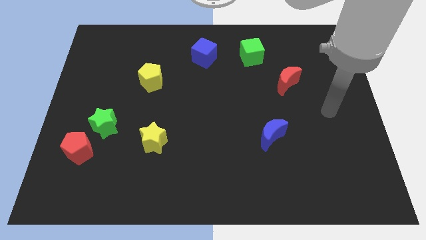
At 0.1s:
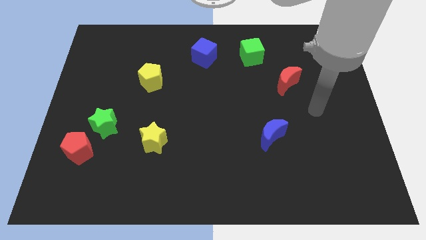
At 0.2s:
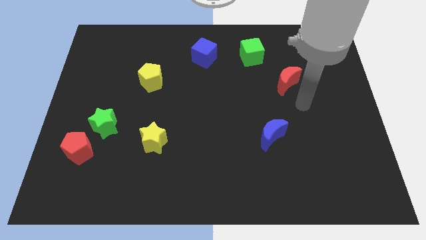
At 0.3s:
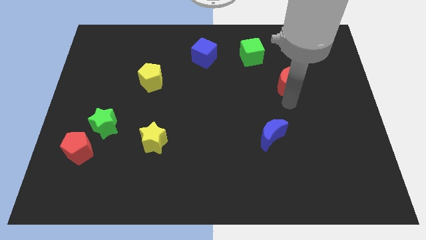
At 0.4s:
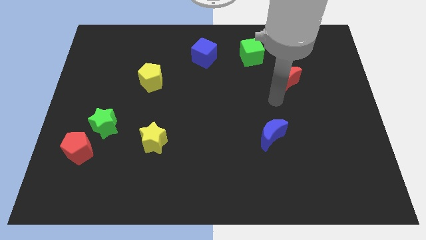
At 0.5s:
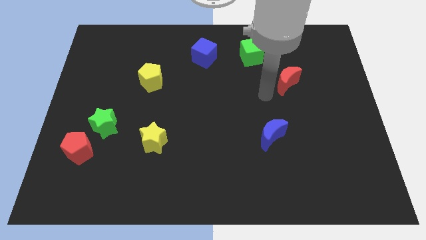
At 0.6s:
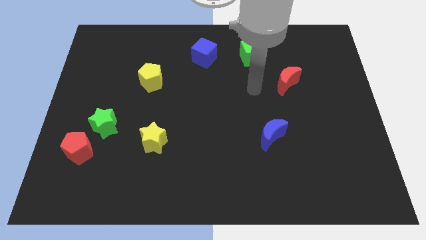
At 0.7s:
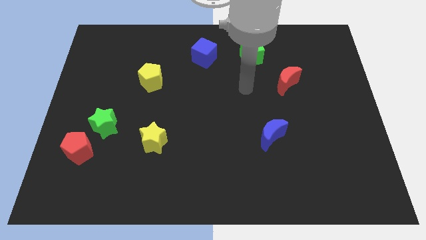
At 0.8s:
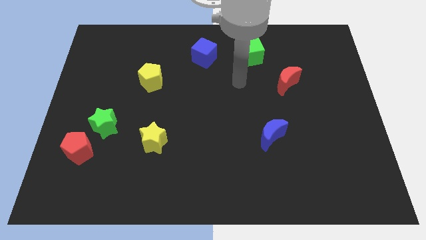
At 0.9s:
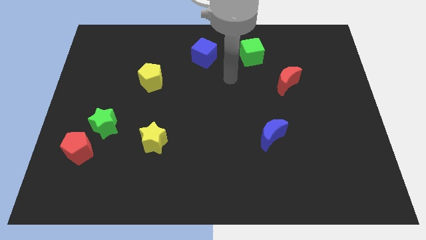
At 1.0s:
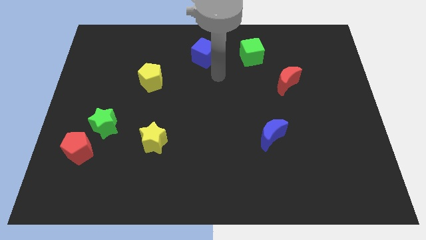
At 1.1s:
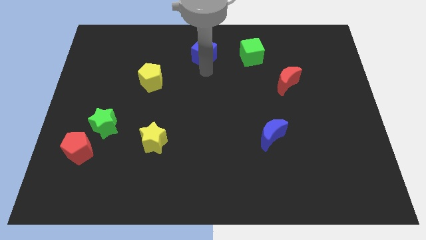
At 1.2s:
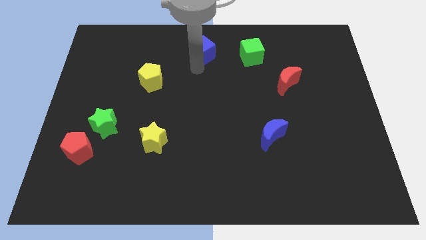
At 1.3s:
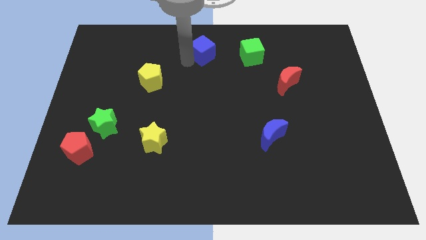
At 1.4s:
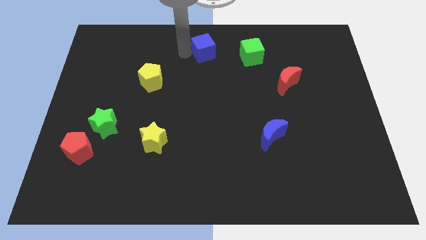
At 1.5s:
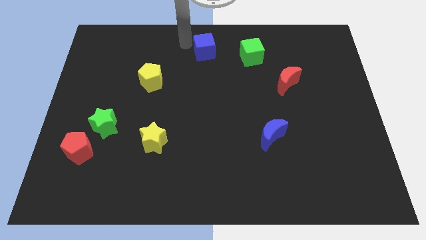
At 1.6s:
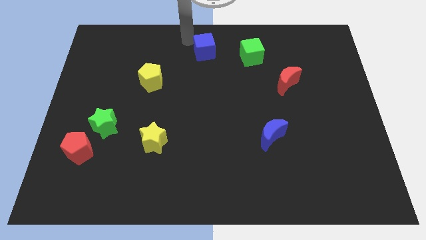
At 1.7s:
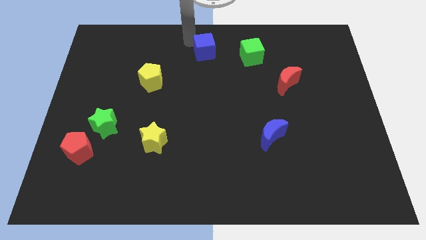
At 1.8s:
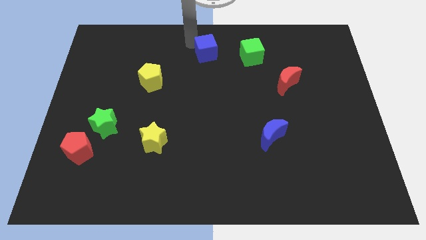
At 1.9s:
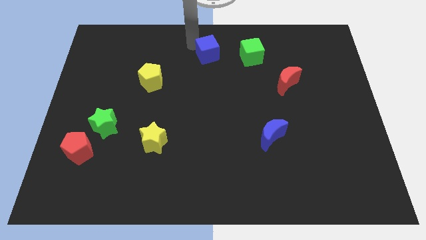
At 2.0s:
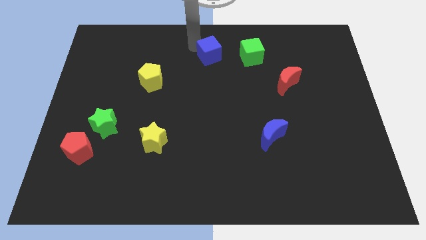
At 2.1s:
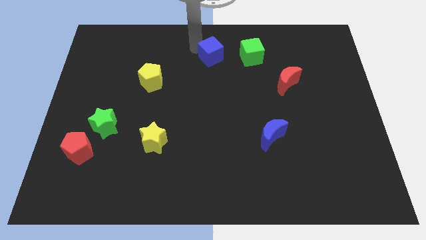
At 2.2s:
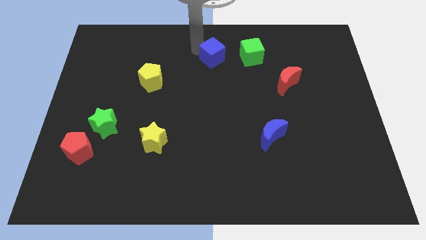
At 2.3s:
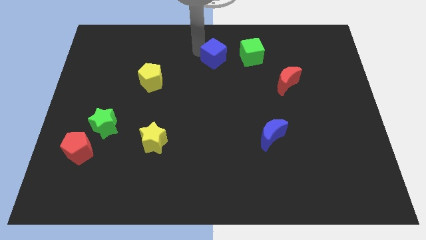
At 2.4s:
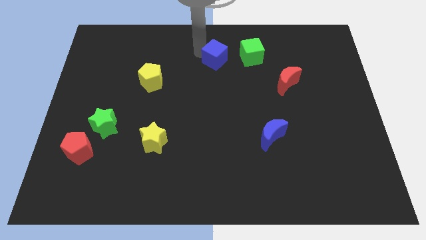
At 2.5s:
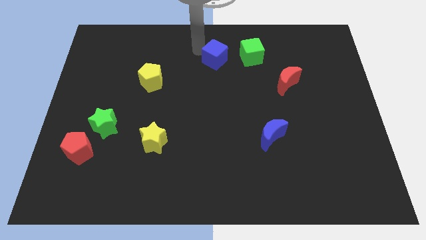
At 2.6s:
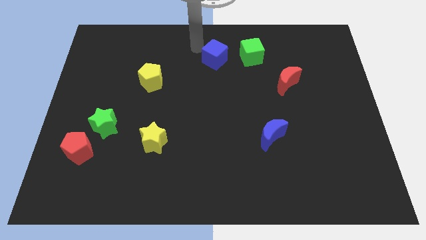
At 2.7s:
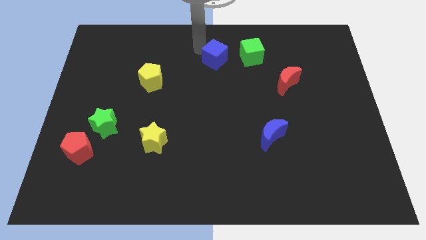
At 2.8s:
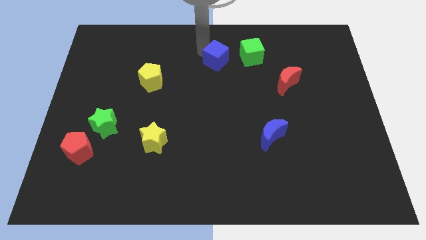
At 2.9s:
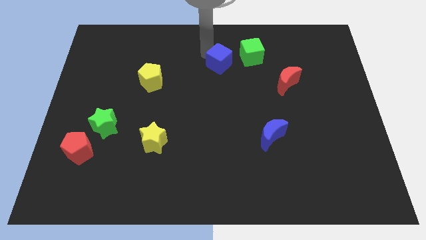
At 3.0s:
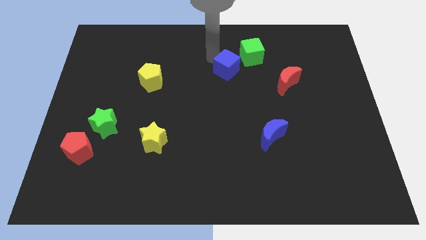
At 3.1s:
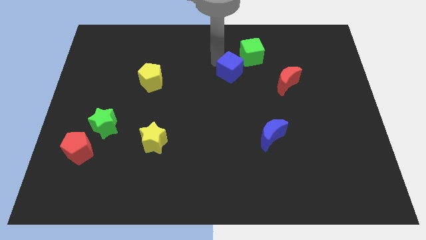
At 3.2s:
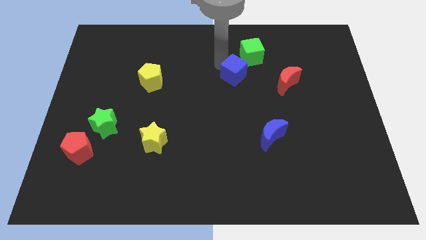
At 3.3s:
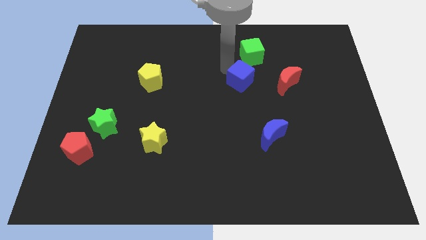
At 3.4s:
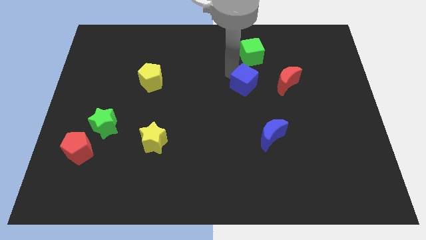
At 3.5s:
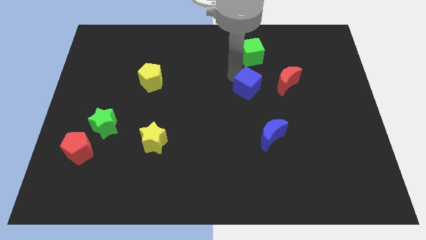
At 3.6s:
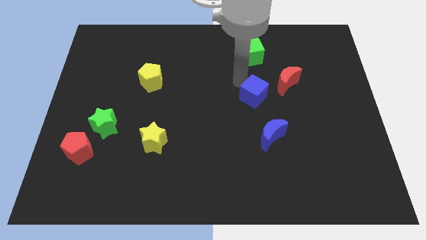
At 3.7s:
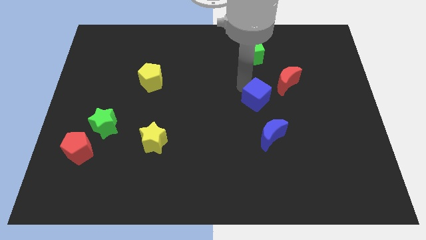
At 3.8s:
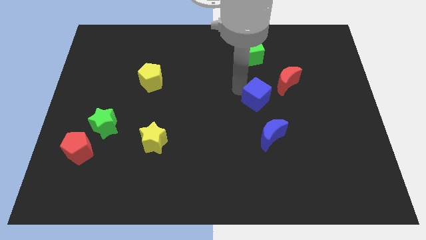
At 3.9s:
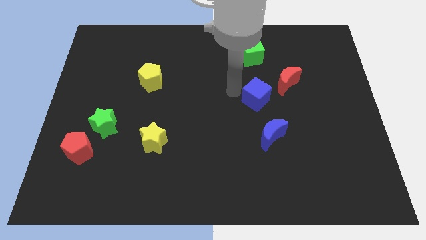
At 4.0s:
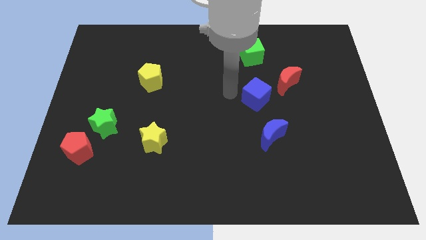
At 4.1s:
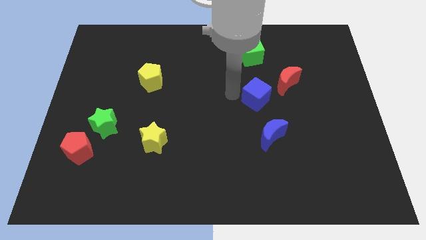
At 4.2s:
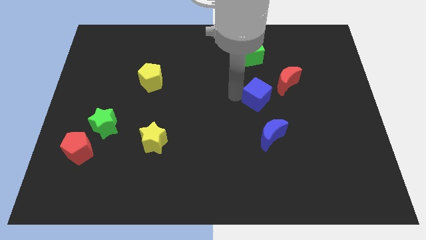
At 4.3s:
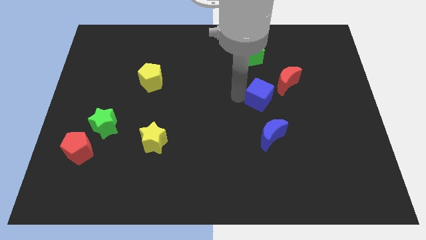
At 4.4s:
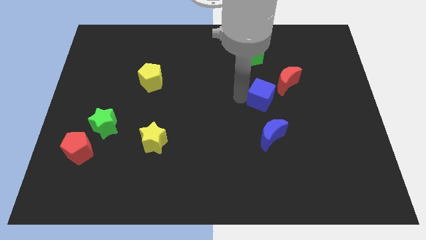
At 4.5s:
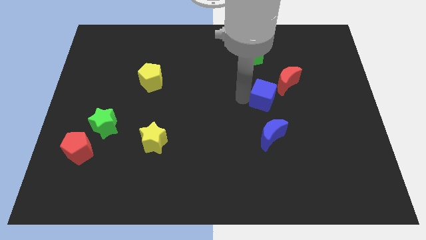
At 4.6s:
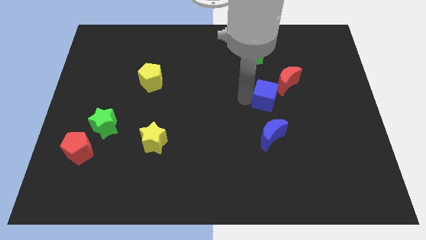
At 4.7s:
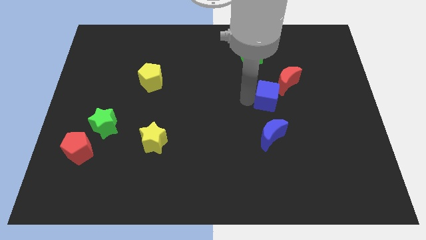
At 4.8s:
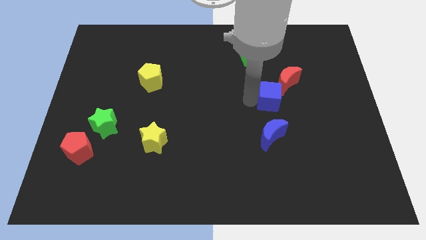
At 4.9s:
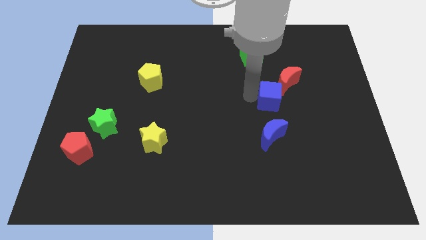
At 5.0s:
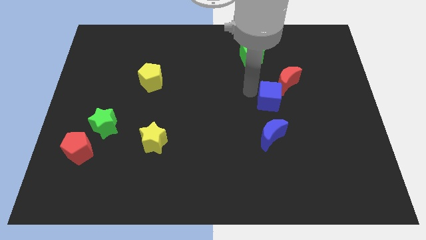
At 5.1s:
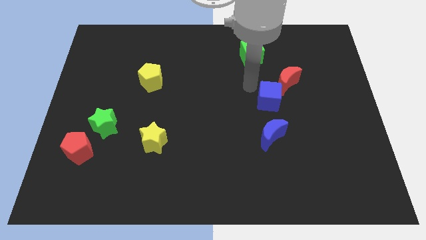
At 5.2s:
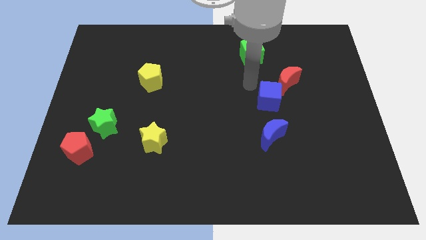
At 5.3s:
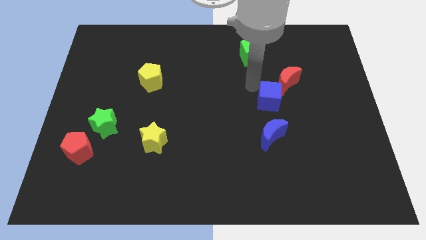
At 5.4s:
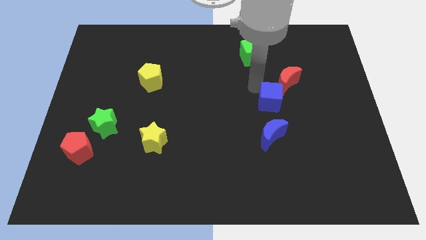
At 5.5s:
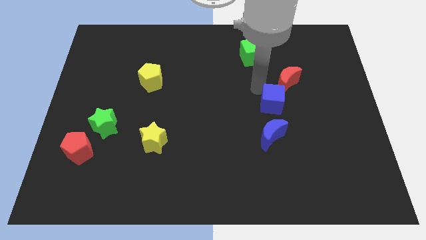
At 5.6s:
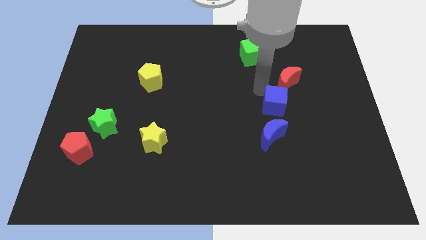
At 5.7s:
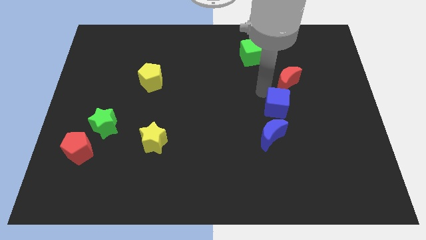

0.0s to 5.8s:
put the blue cube diagonally up and to the right of the blue moon

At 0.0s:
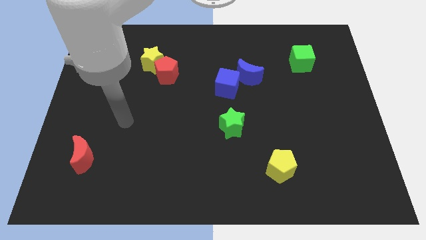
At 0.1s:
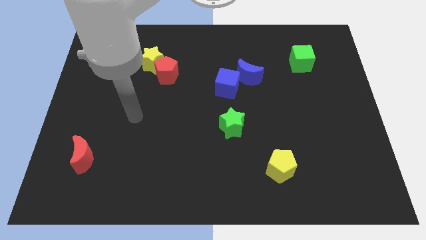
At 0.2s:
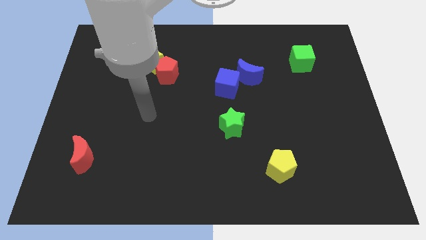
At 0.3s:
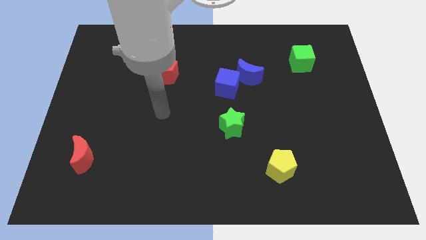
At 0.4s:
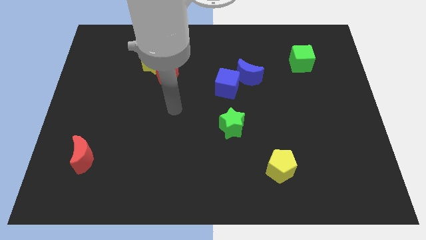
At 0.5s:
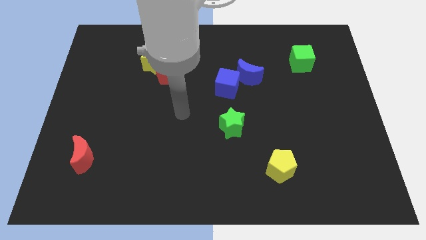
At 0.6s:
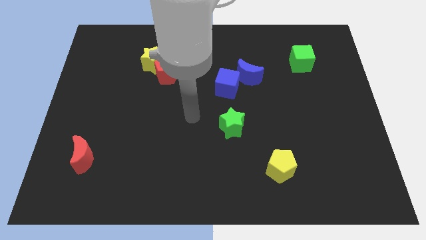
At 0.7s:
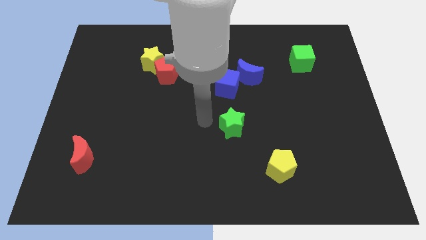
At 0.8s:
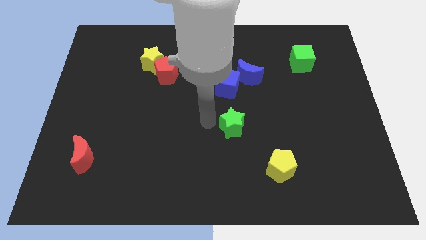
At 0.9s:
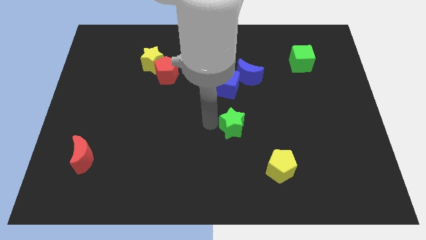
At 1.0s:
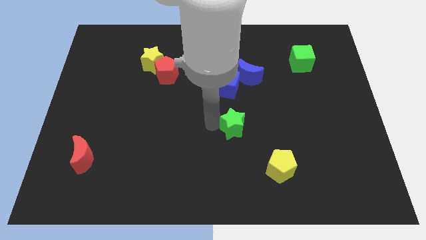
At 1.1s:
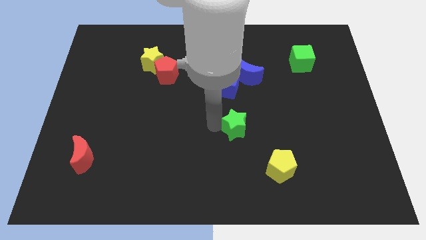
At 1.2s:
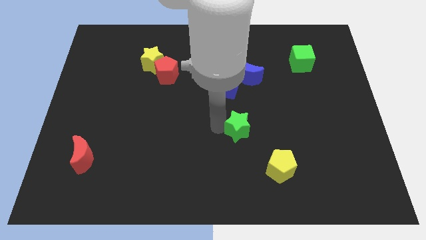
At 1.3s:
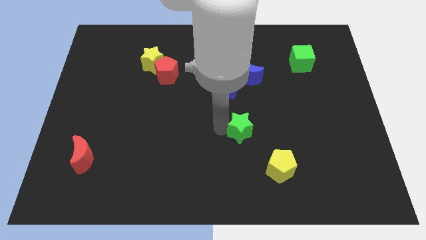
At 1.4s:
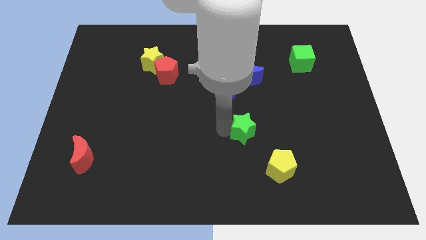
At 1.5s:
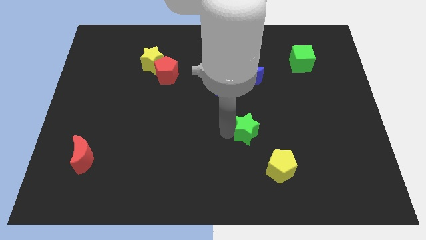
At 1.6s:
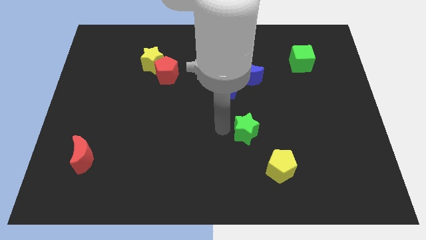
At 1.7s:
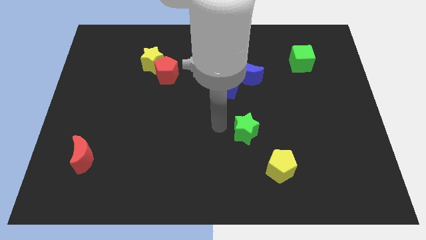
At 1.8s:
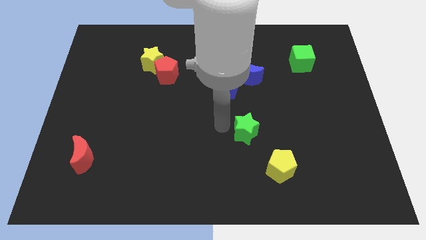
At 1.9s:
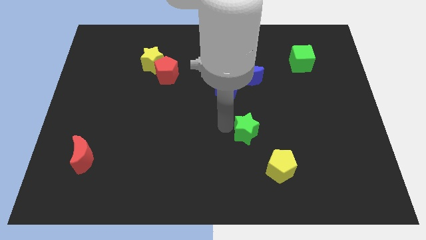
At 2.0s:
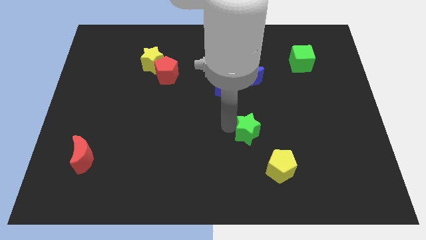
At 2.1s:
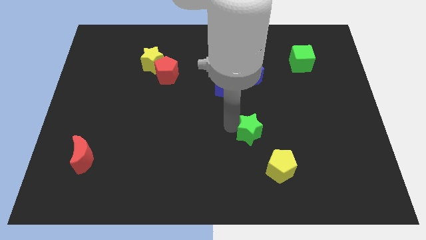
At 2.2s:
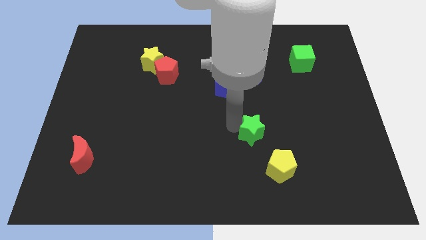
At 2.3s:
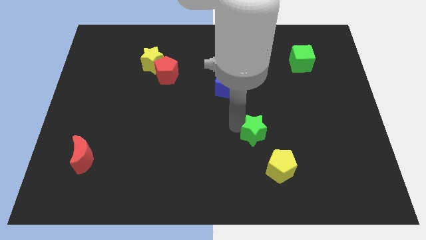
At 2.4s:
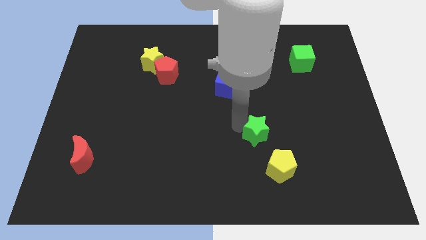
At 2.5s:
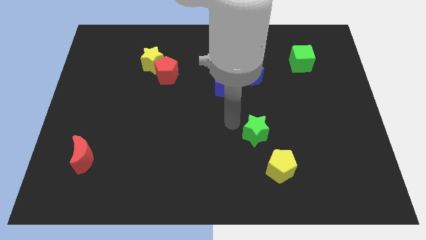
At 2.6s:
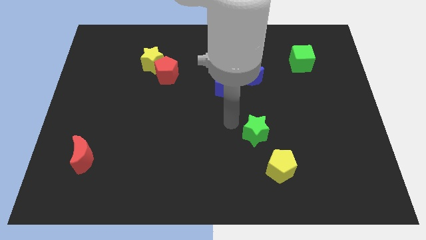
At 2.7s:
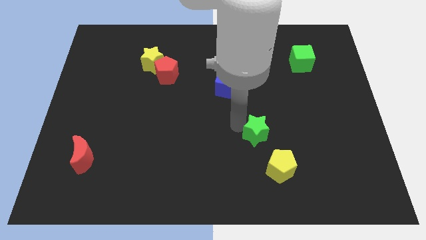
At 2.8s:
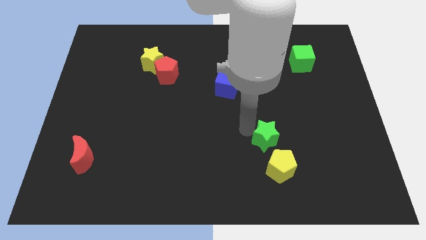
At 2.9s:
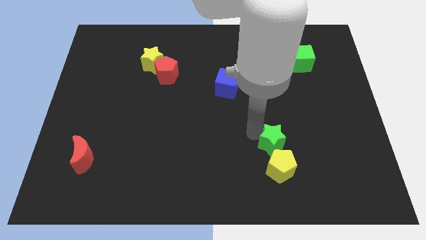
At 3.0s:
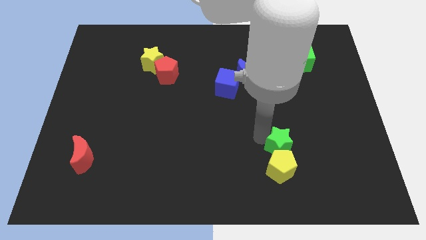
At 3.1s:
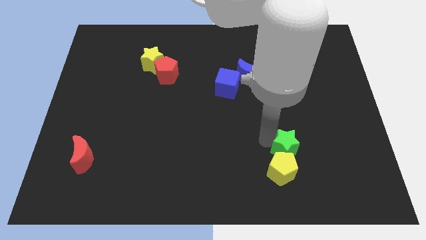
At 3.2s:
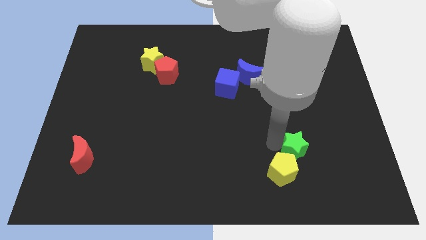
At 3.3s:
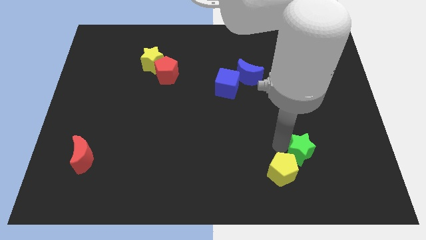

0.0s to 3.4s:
move the green star just right of the yellow pentagon
